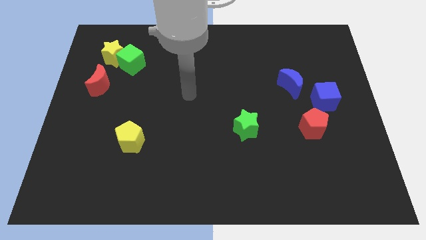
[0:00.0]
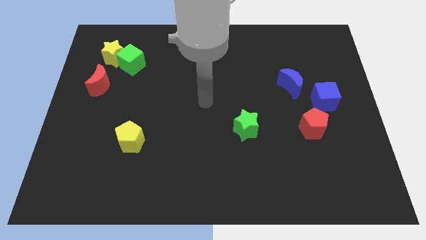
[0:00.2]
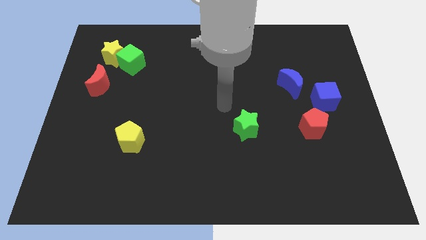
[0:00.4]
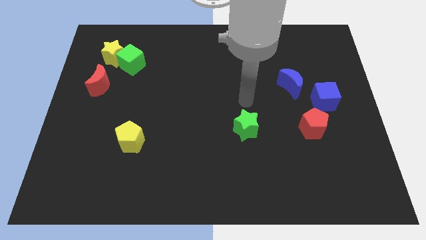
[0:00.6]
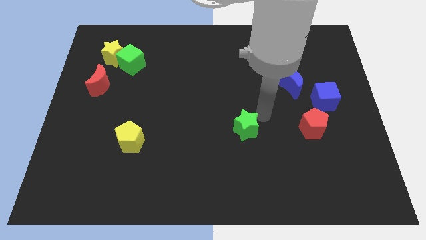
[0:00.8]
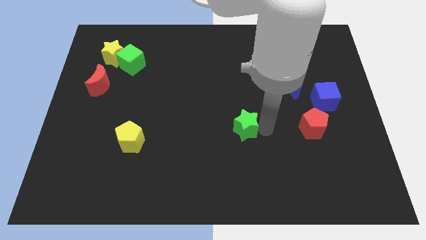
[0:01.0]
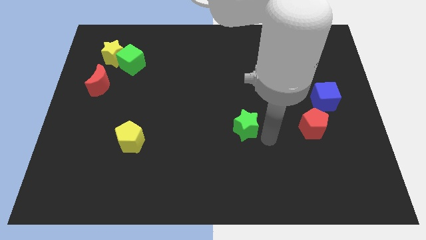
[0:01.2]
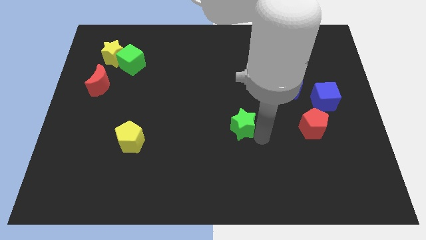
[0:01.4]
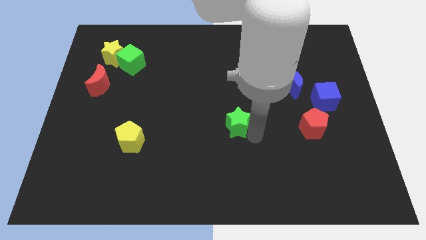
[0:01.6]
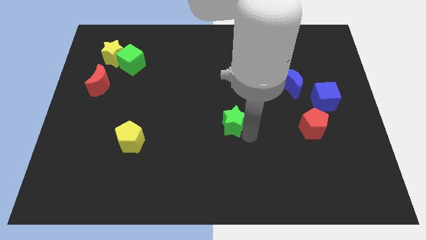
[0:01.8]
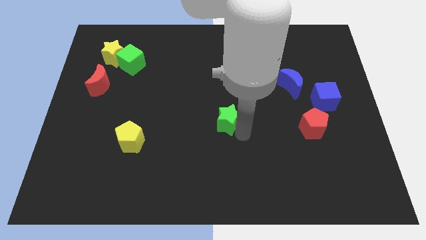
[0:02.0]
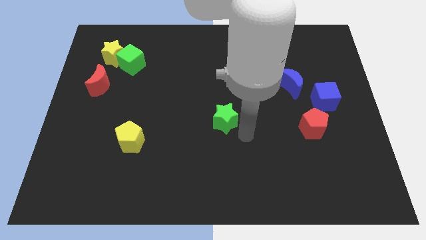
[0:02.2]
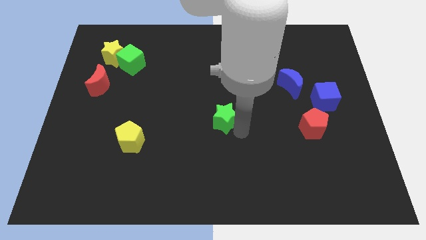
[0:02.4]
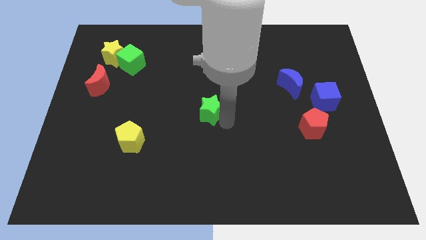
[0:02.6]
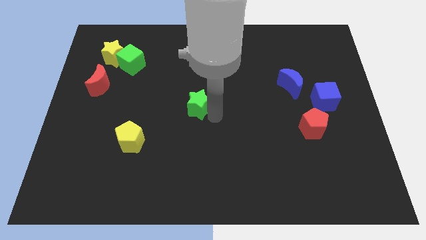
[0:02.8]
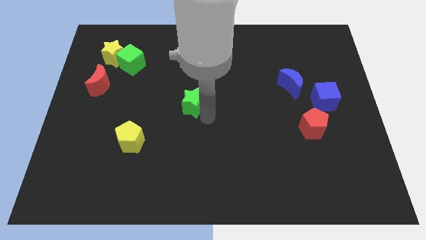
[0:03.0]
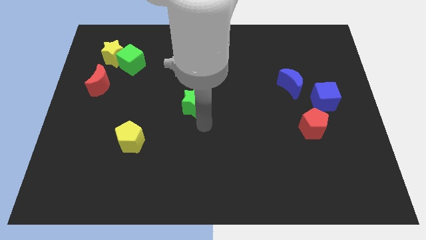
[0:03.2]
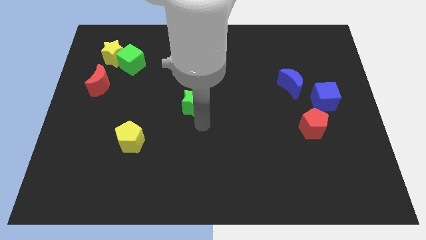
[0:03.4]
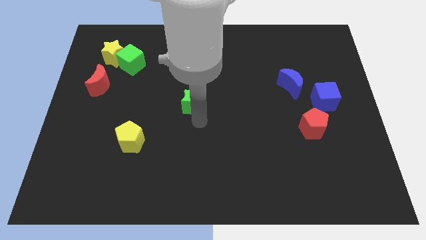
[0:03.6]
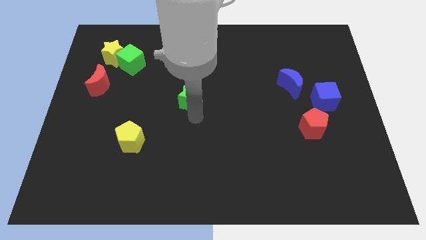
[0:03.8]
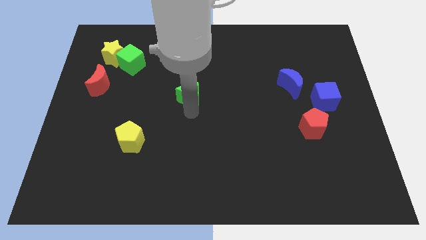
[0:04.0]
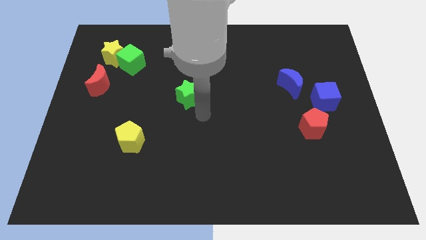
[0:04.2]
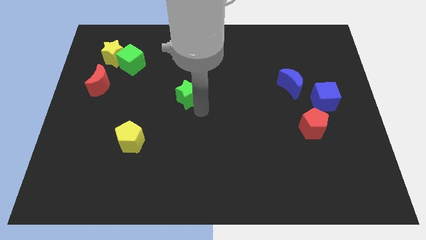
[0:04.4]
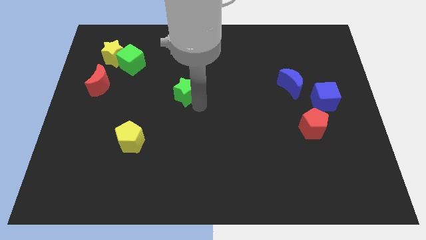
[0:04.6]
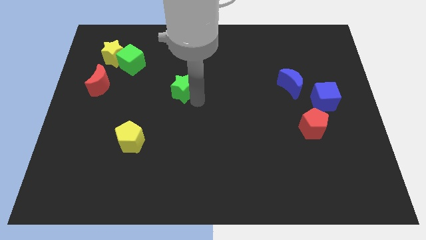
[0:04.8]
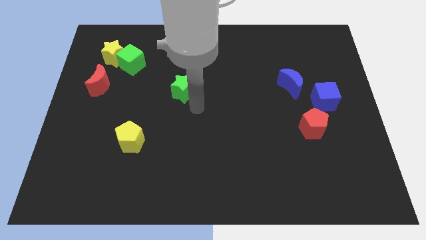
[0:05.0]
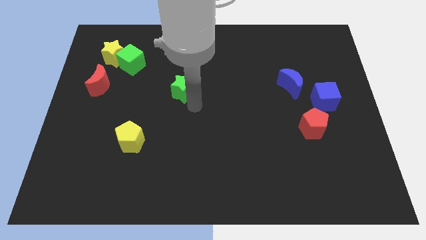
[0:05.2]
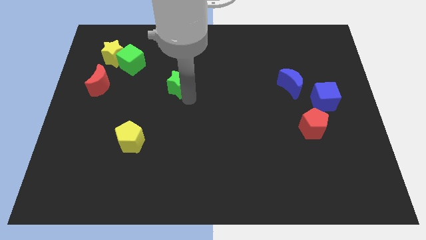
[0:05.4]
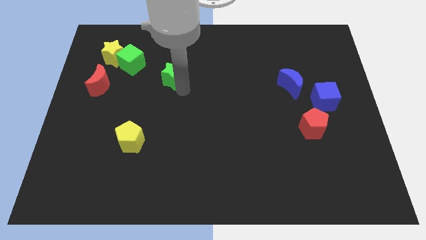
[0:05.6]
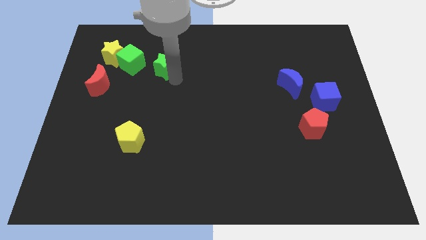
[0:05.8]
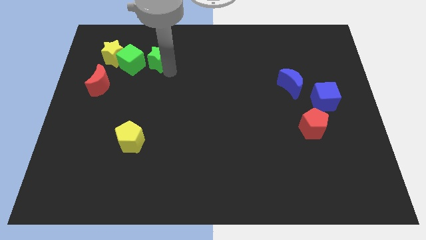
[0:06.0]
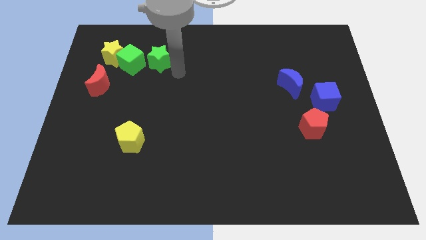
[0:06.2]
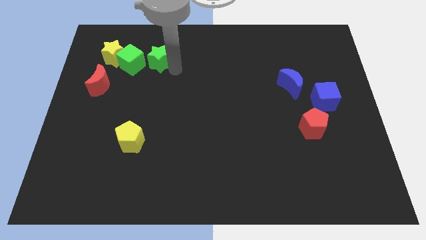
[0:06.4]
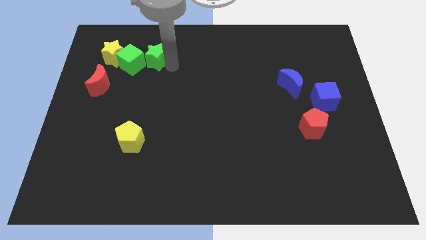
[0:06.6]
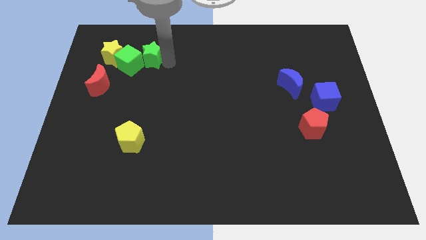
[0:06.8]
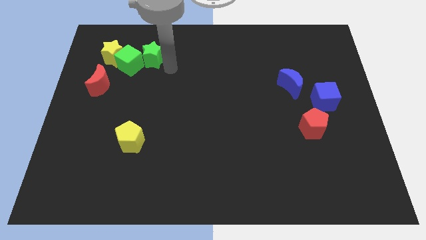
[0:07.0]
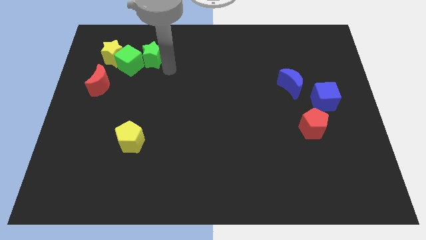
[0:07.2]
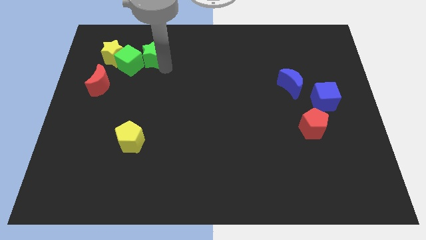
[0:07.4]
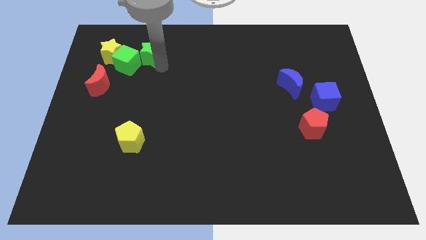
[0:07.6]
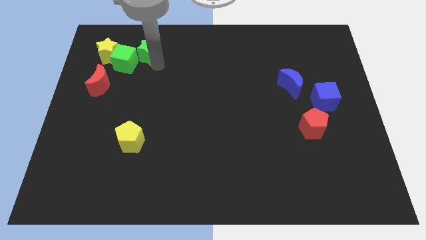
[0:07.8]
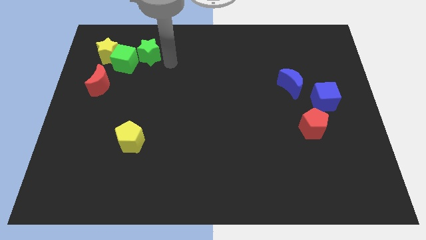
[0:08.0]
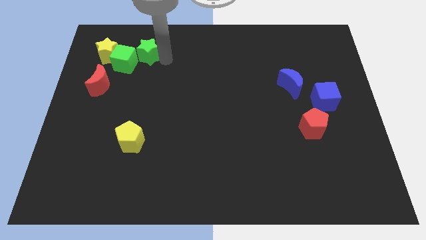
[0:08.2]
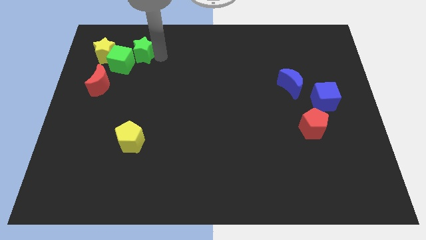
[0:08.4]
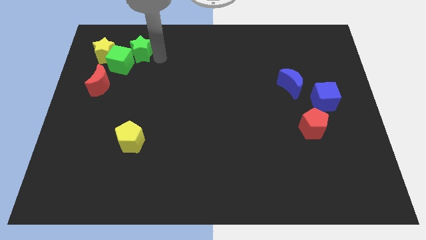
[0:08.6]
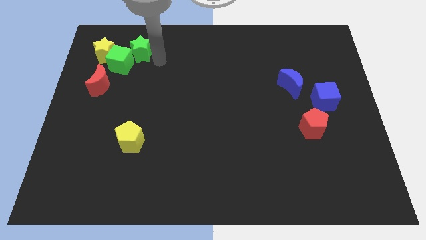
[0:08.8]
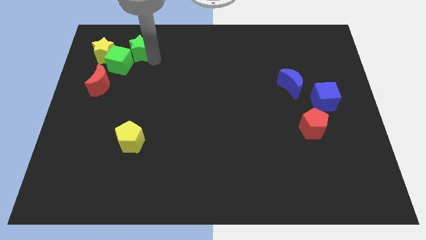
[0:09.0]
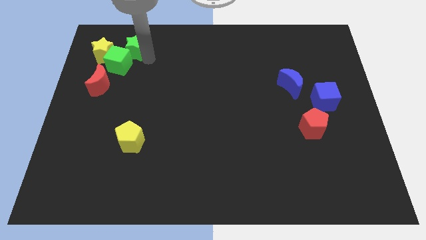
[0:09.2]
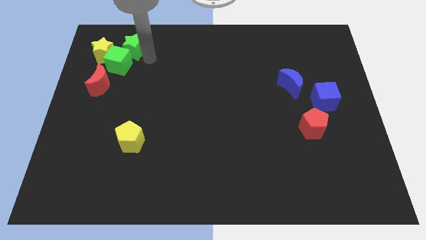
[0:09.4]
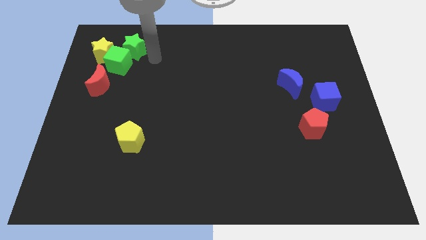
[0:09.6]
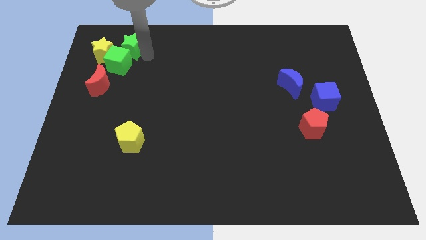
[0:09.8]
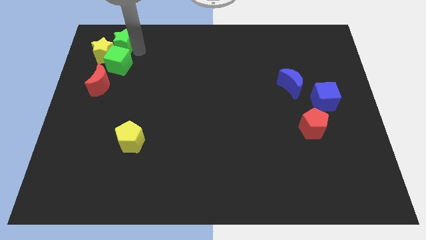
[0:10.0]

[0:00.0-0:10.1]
push the green star to the top of the red moon

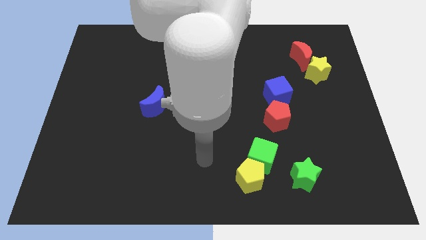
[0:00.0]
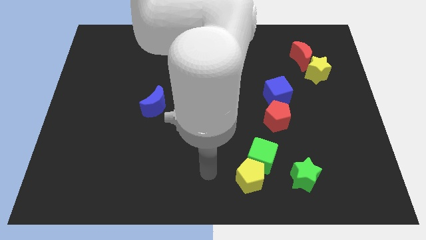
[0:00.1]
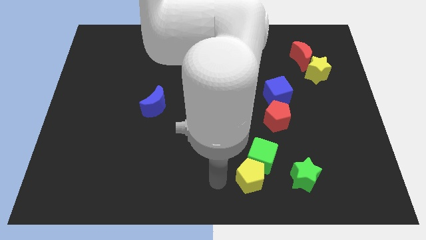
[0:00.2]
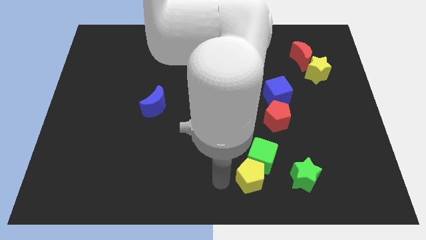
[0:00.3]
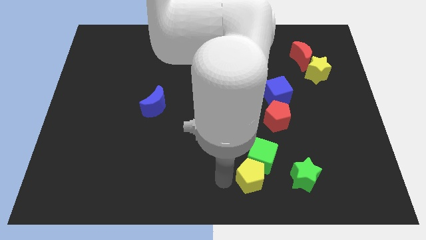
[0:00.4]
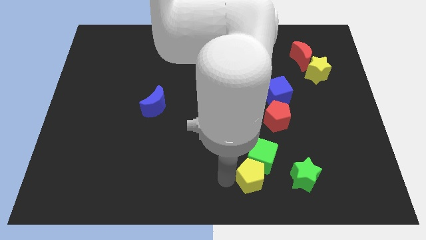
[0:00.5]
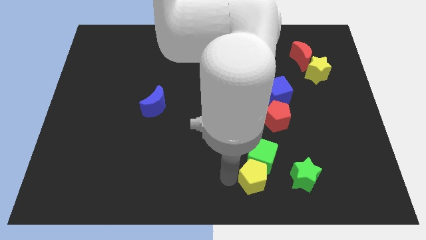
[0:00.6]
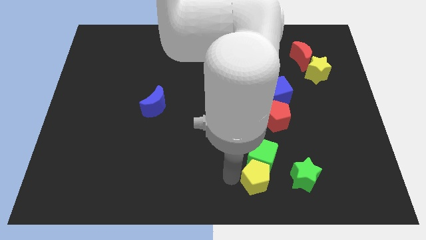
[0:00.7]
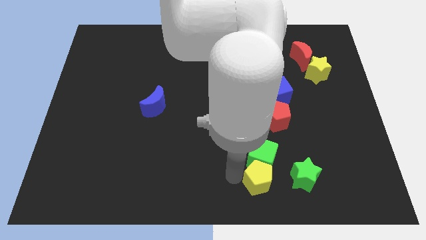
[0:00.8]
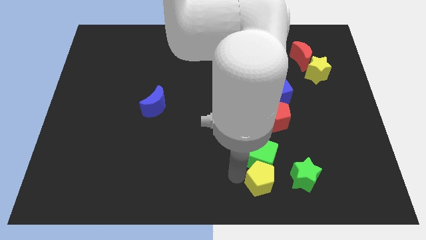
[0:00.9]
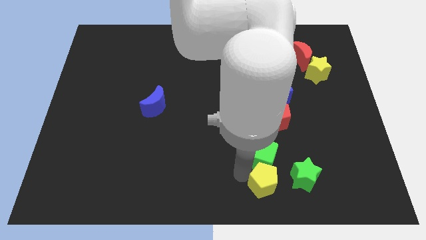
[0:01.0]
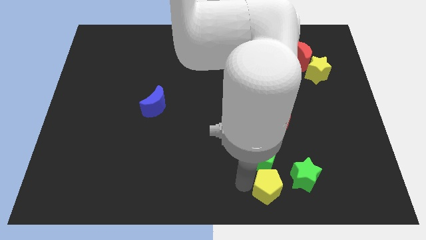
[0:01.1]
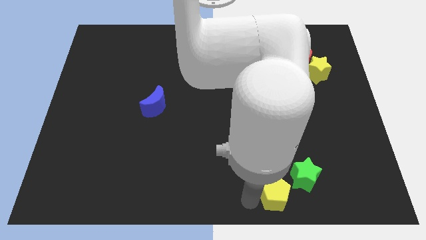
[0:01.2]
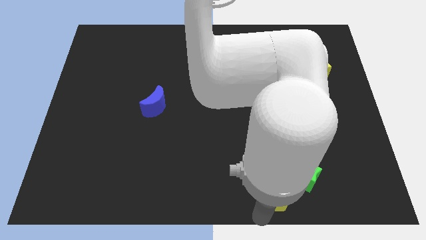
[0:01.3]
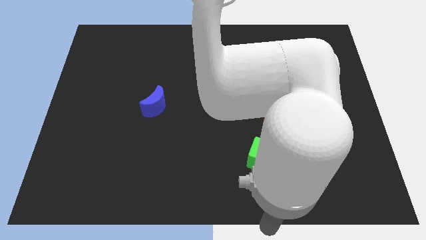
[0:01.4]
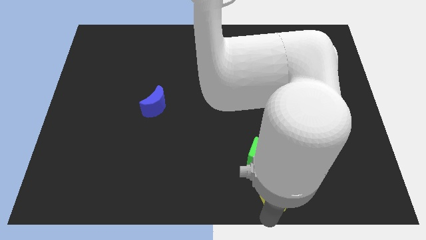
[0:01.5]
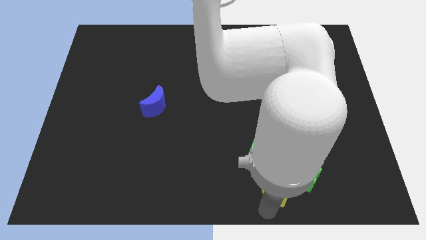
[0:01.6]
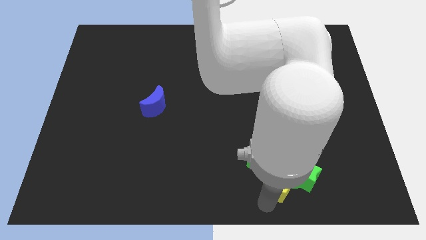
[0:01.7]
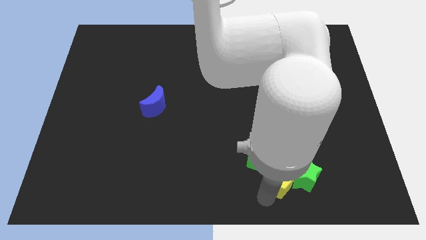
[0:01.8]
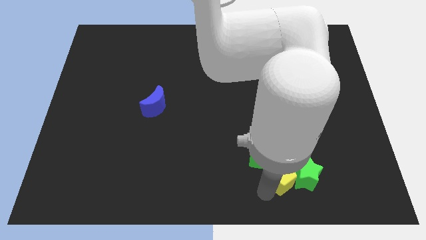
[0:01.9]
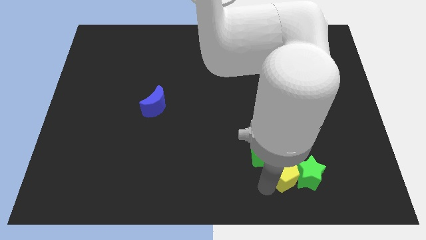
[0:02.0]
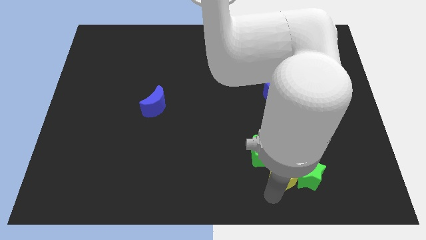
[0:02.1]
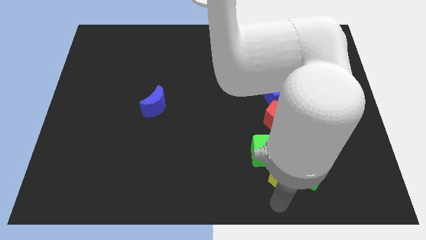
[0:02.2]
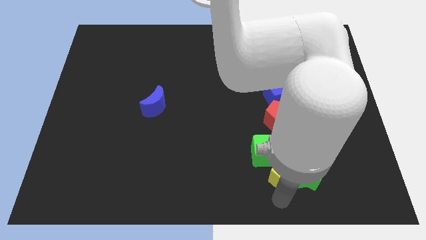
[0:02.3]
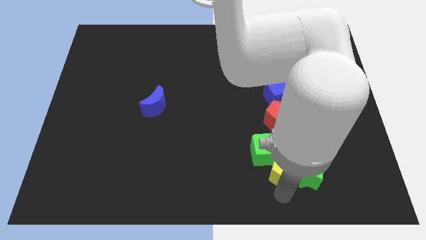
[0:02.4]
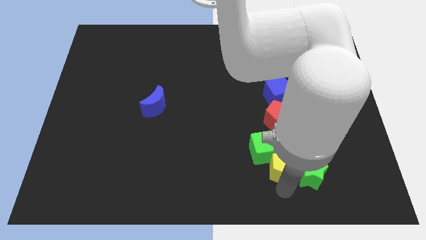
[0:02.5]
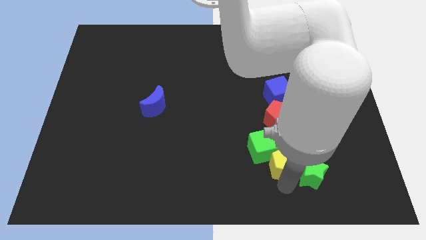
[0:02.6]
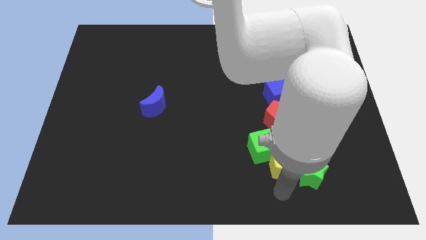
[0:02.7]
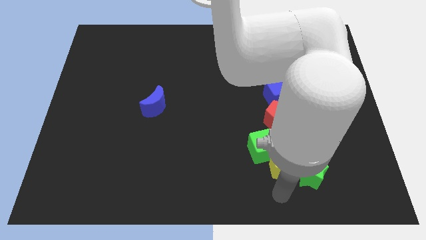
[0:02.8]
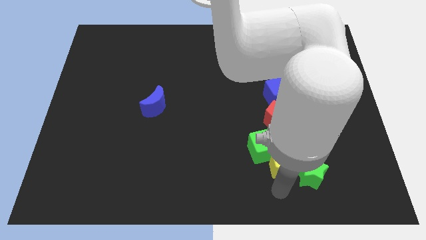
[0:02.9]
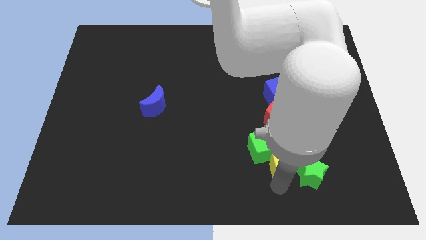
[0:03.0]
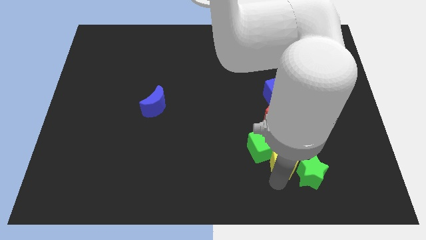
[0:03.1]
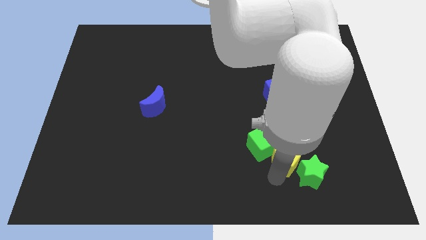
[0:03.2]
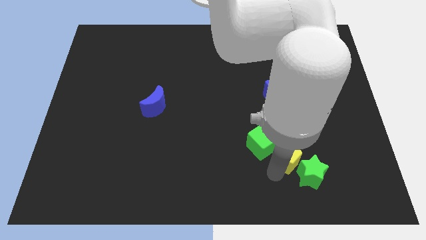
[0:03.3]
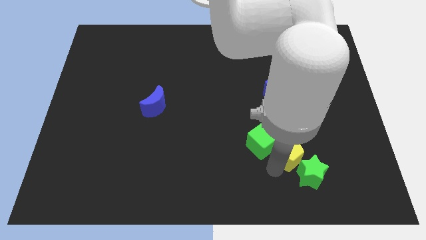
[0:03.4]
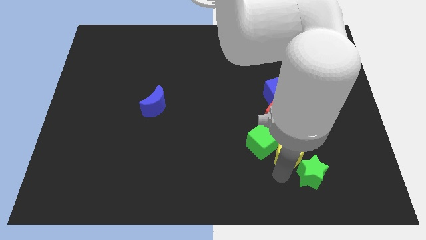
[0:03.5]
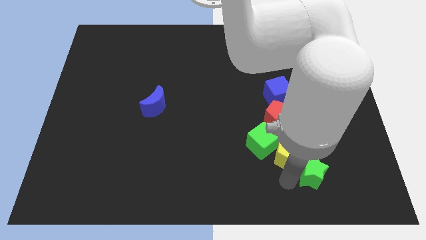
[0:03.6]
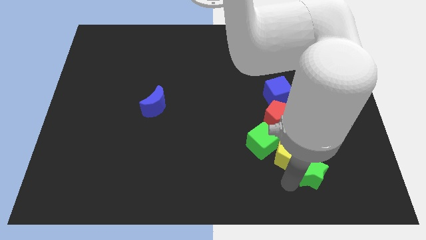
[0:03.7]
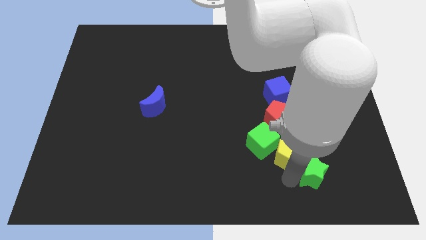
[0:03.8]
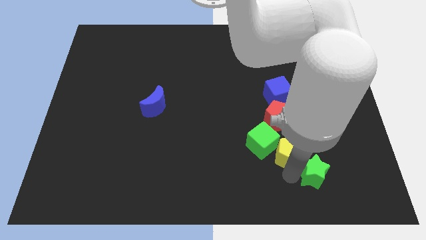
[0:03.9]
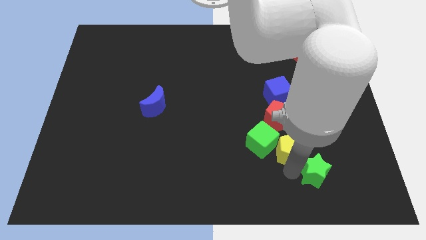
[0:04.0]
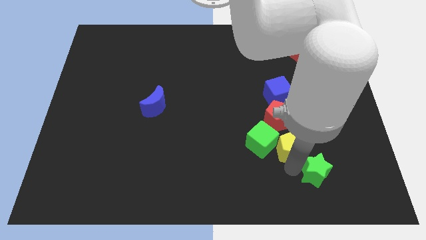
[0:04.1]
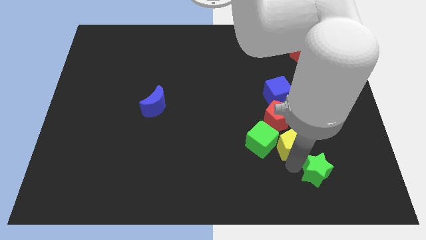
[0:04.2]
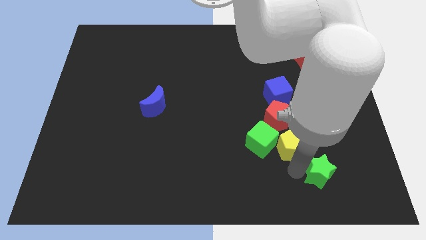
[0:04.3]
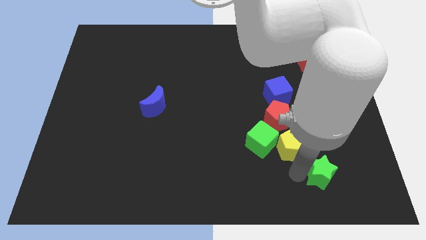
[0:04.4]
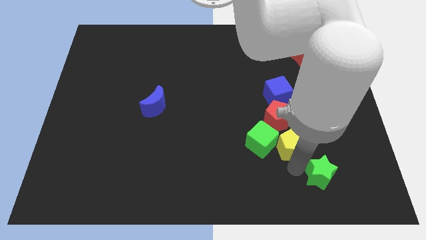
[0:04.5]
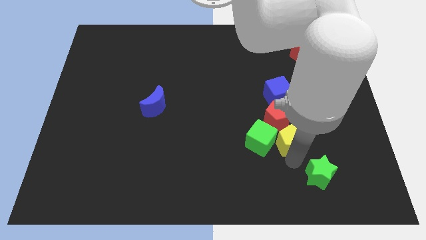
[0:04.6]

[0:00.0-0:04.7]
move the yellow pentagon to the top right of the green cube
